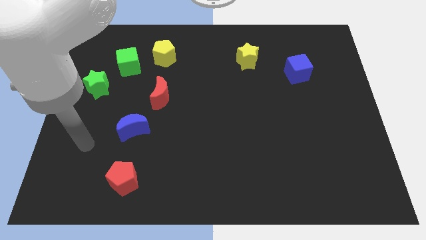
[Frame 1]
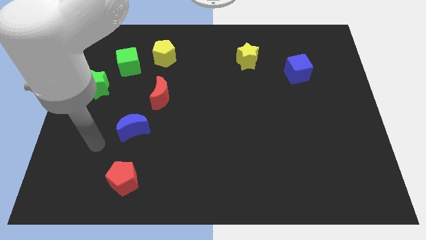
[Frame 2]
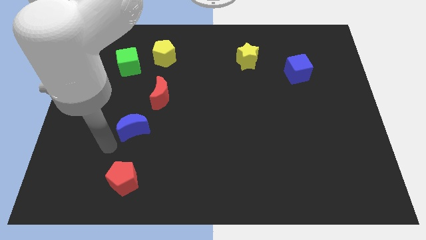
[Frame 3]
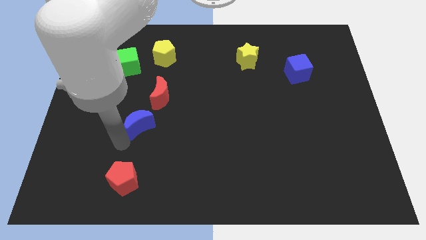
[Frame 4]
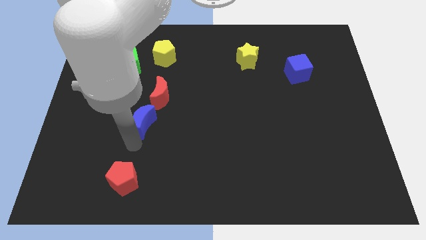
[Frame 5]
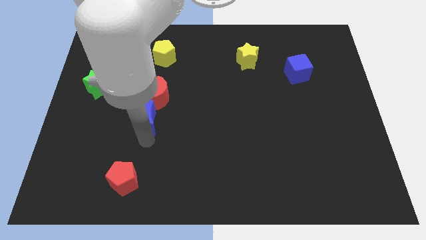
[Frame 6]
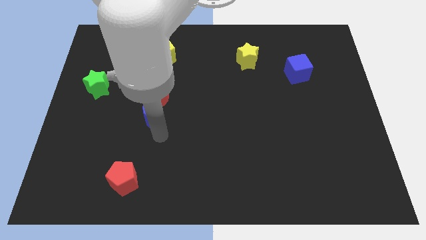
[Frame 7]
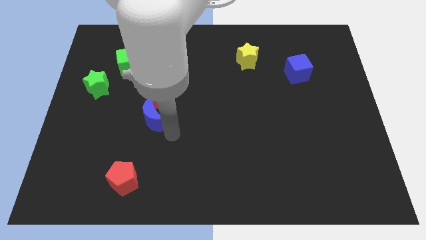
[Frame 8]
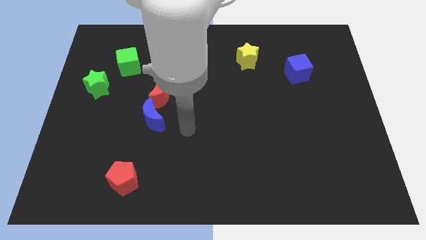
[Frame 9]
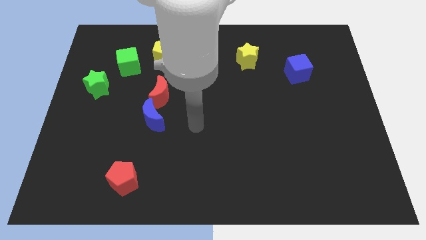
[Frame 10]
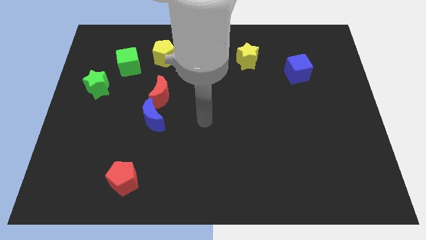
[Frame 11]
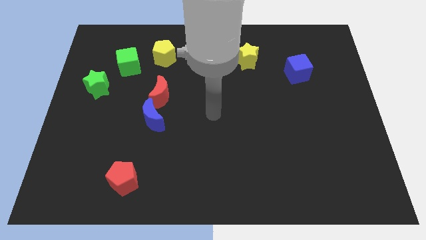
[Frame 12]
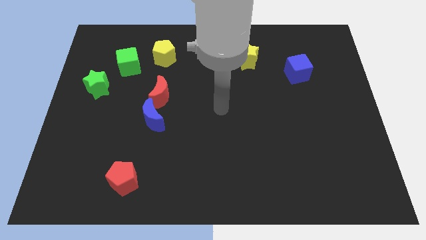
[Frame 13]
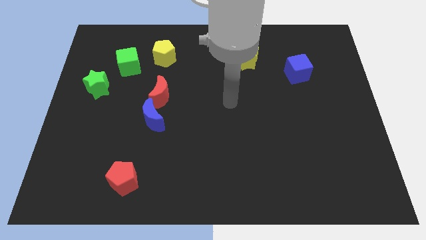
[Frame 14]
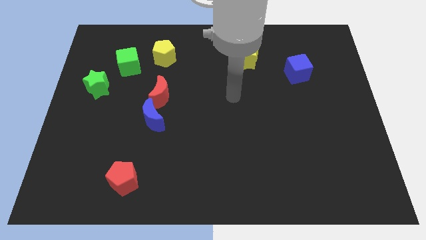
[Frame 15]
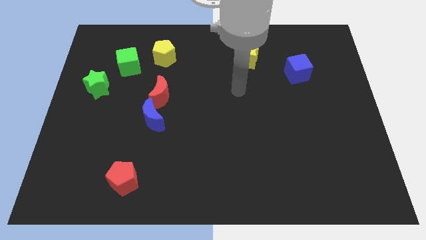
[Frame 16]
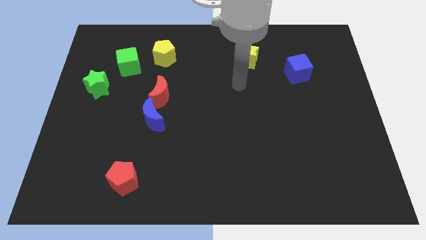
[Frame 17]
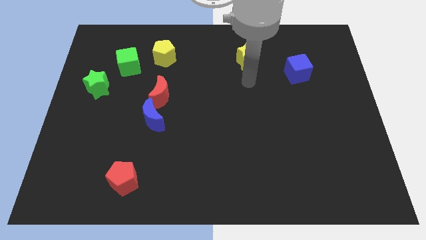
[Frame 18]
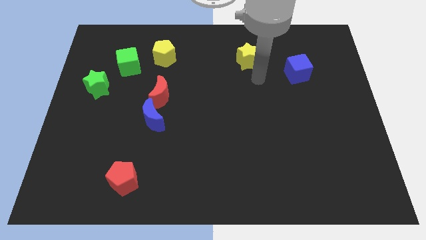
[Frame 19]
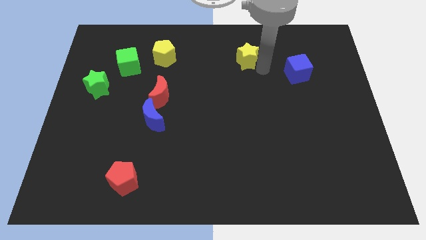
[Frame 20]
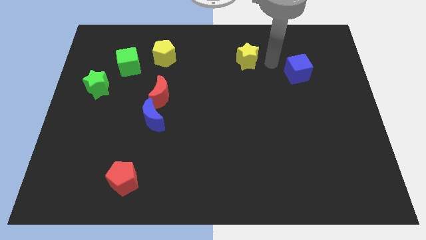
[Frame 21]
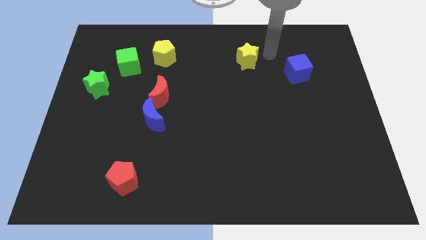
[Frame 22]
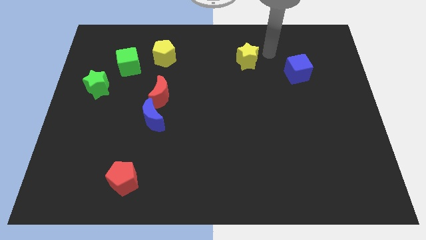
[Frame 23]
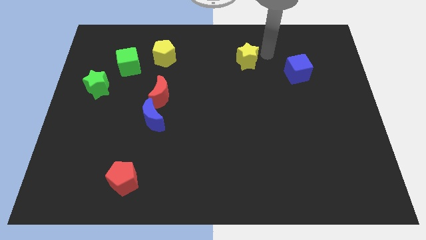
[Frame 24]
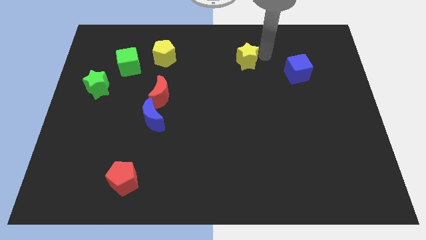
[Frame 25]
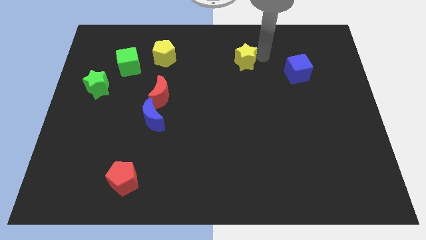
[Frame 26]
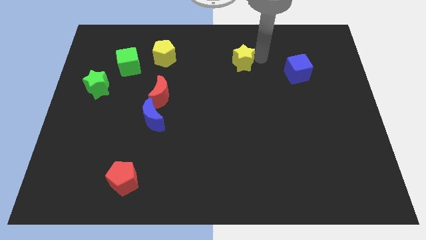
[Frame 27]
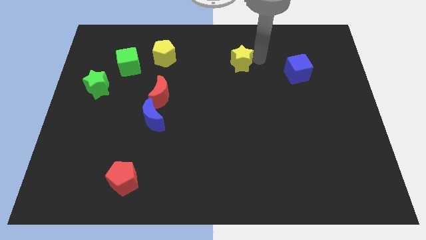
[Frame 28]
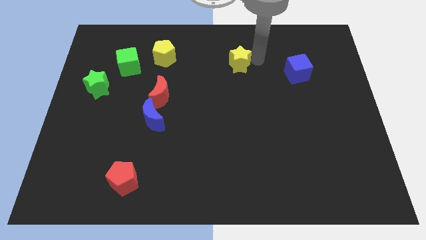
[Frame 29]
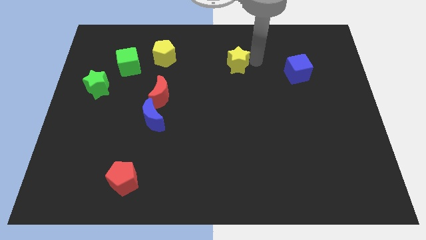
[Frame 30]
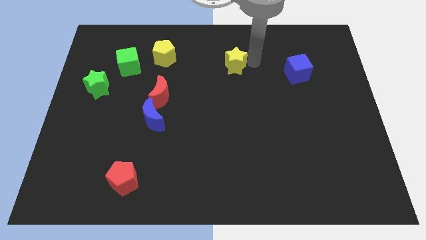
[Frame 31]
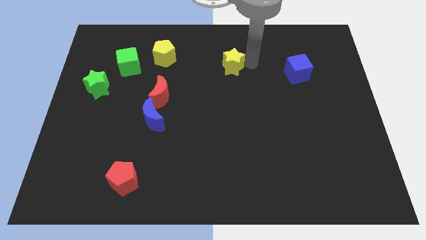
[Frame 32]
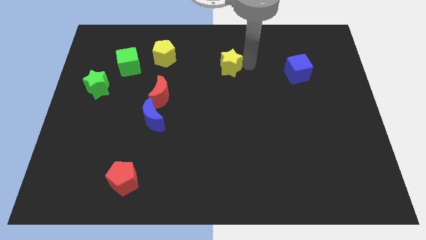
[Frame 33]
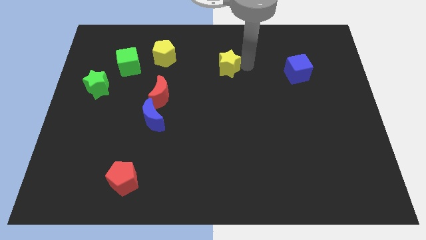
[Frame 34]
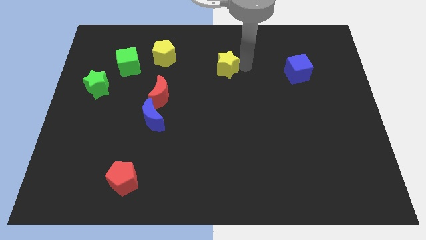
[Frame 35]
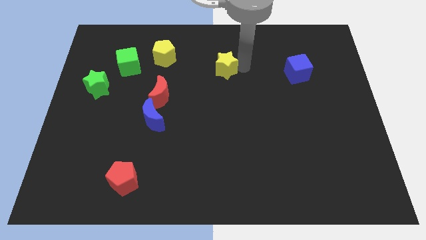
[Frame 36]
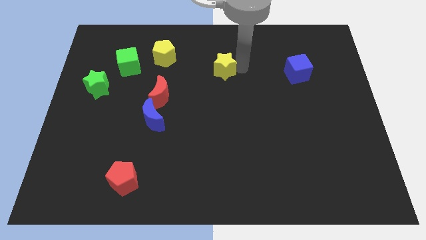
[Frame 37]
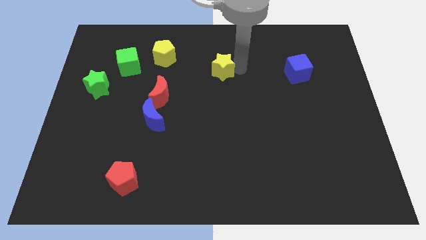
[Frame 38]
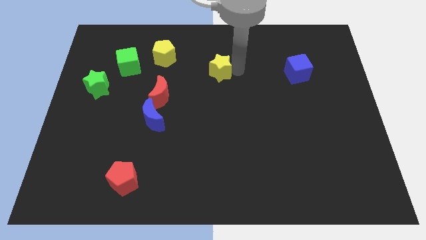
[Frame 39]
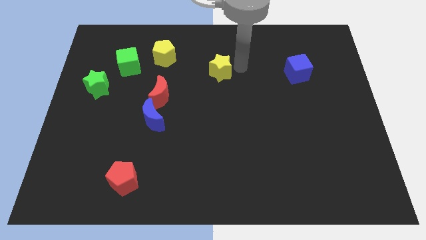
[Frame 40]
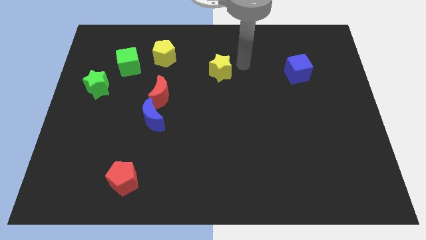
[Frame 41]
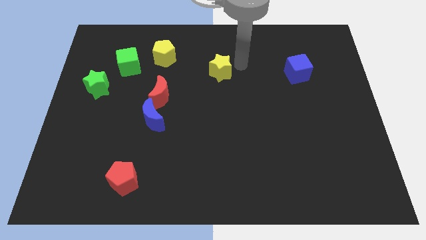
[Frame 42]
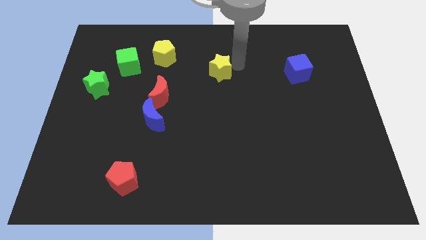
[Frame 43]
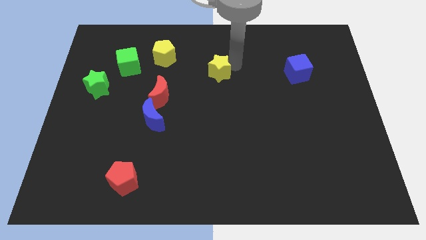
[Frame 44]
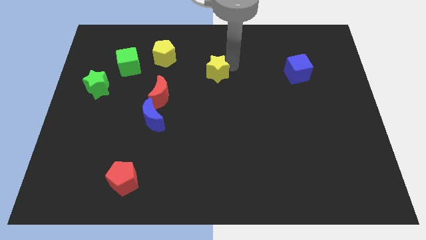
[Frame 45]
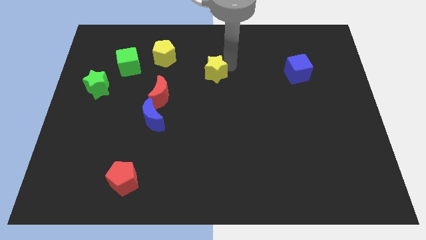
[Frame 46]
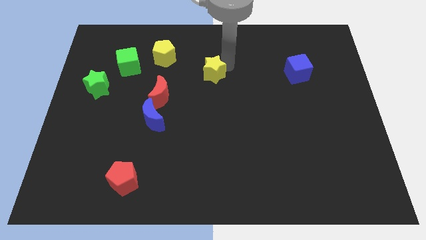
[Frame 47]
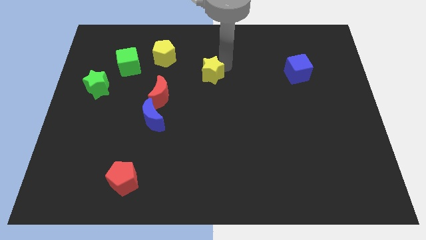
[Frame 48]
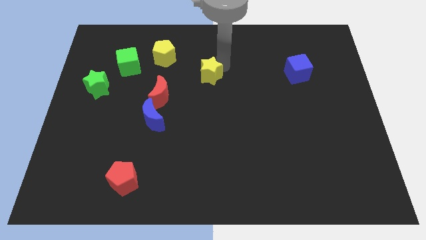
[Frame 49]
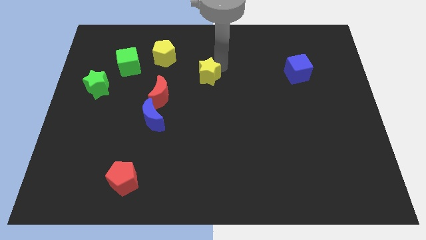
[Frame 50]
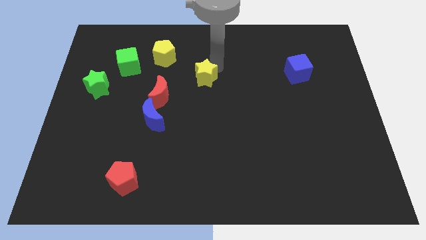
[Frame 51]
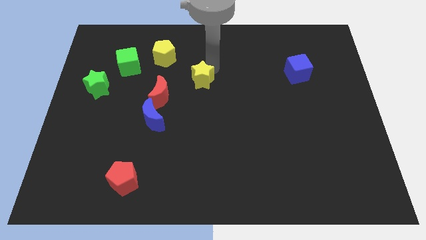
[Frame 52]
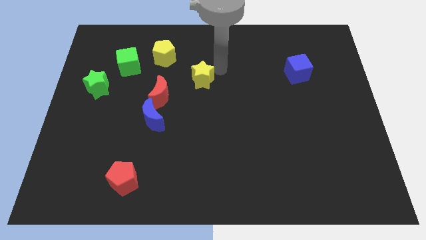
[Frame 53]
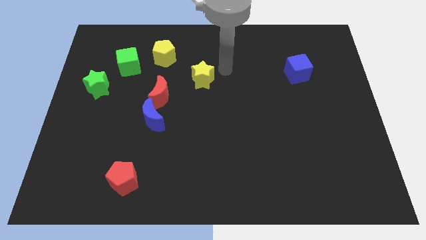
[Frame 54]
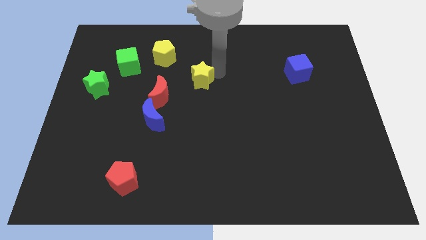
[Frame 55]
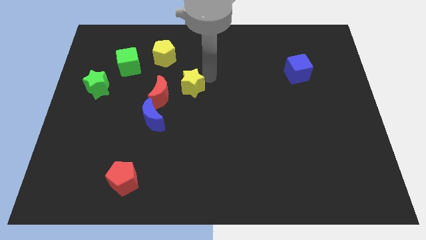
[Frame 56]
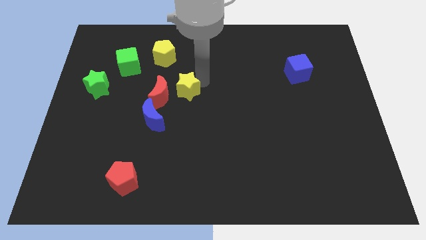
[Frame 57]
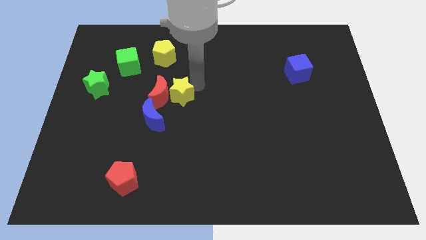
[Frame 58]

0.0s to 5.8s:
move the yellow star to the red moon
